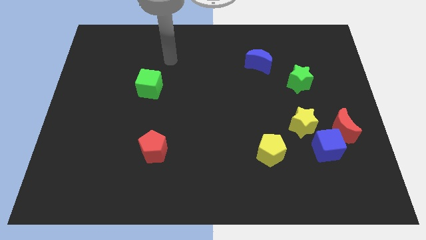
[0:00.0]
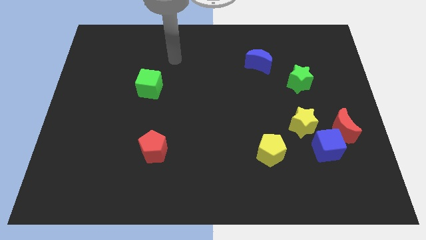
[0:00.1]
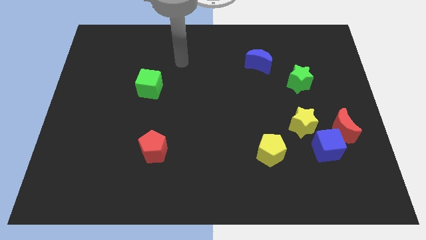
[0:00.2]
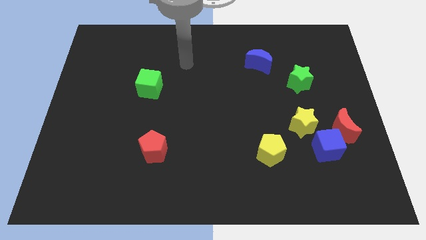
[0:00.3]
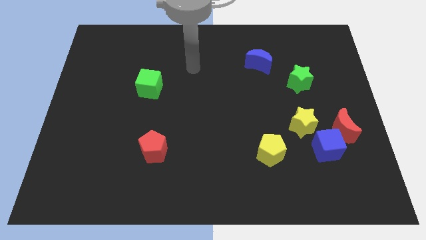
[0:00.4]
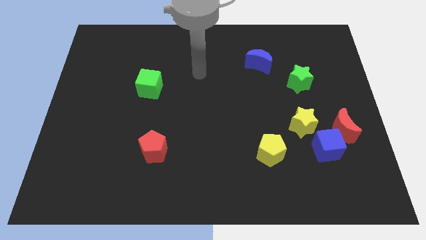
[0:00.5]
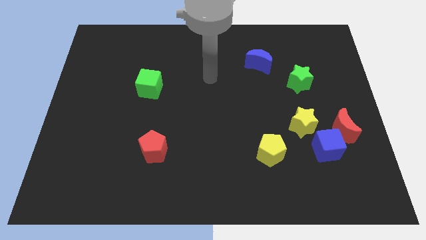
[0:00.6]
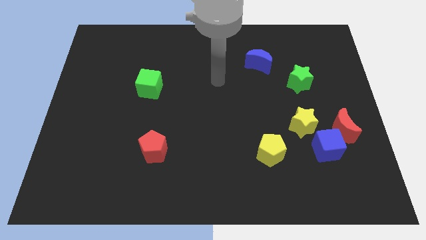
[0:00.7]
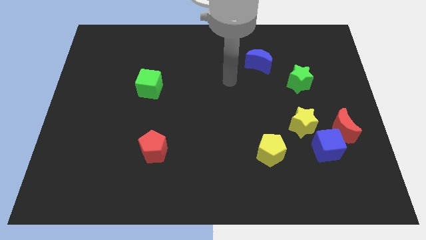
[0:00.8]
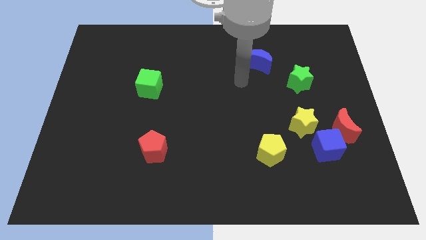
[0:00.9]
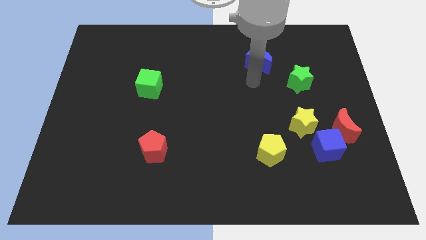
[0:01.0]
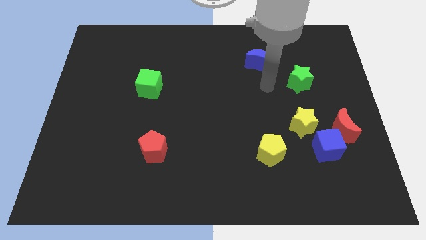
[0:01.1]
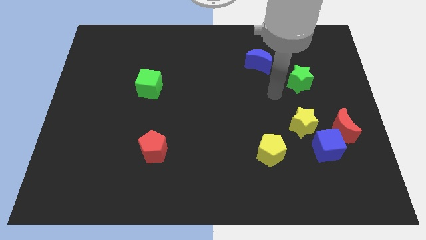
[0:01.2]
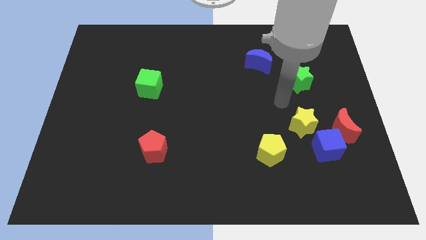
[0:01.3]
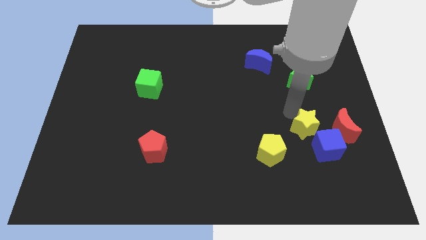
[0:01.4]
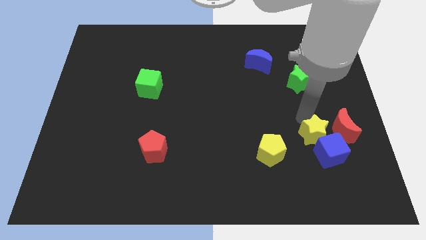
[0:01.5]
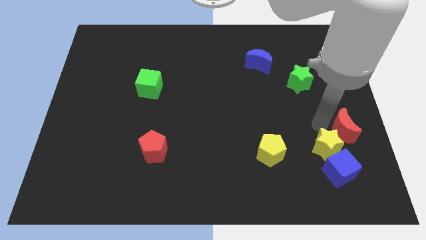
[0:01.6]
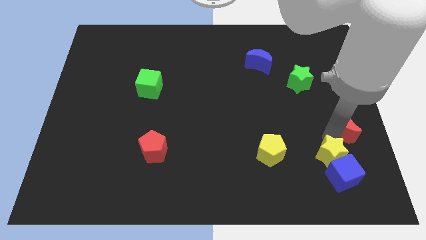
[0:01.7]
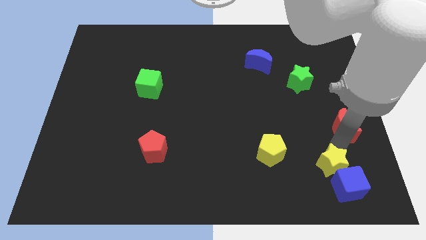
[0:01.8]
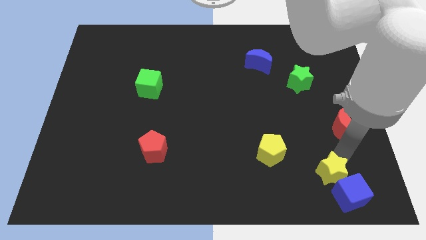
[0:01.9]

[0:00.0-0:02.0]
pull the blue cube apart from the red moon and yellow star

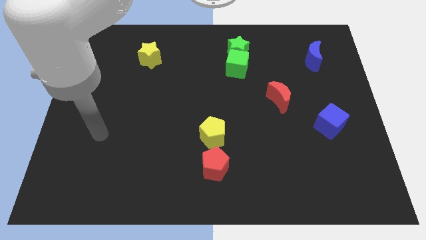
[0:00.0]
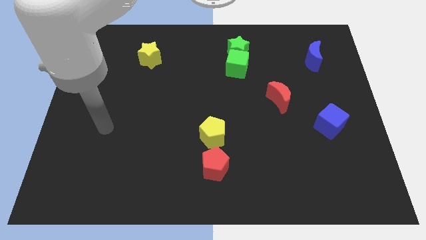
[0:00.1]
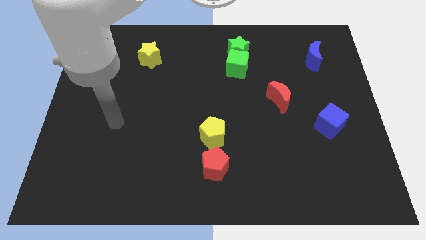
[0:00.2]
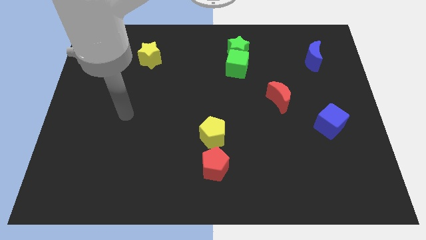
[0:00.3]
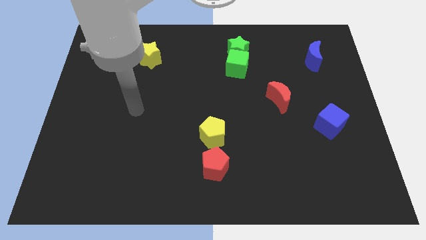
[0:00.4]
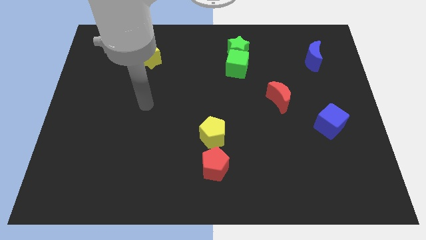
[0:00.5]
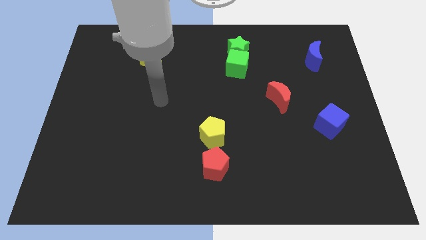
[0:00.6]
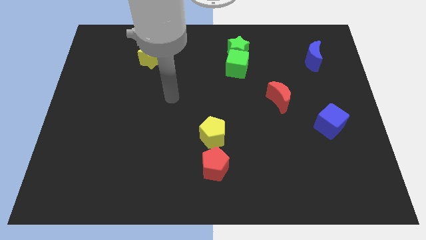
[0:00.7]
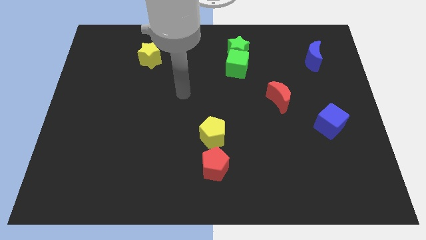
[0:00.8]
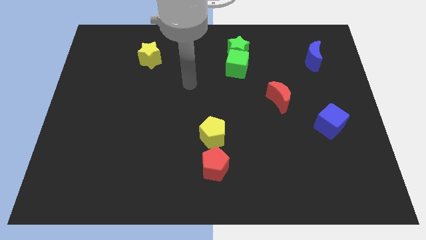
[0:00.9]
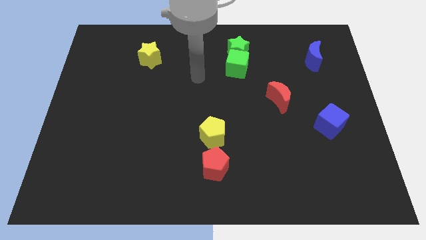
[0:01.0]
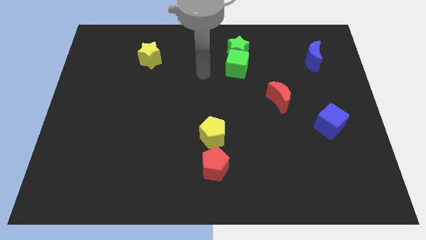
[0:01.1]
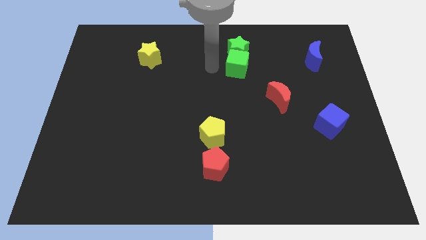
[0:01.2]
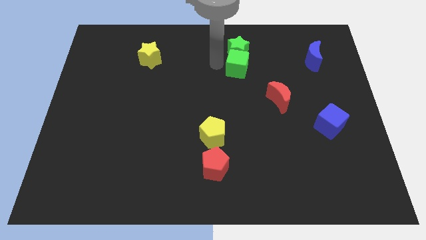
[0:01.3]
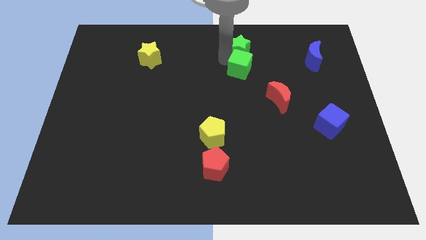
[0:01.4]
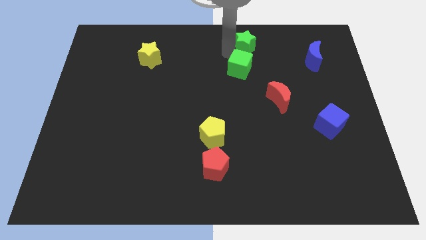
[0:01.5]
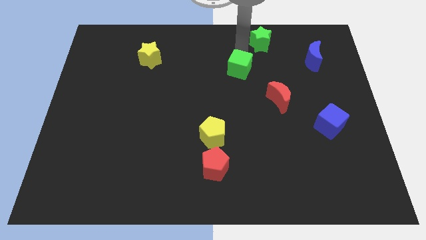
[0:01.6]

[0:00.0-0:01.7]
pull the green cube apart from the green star

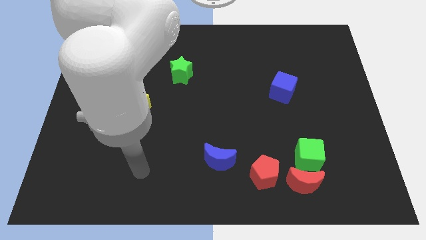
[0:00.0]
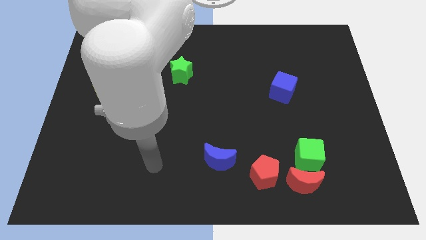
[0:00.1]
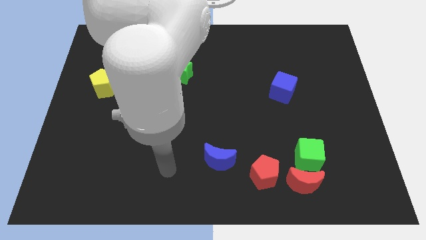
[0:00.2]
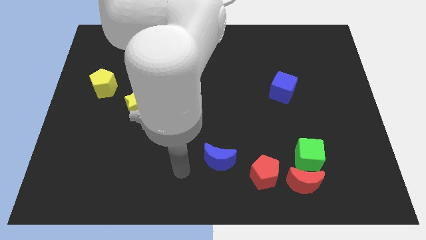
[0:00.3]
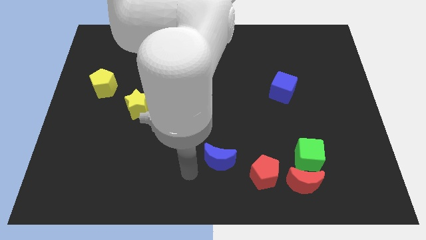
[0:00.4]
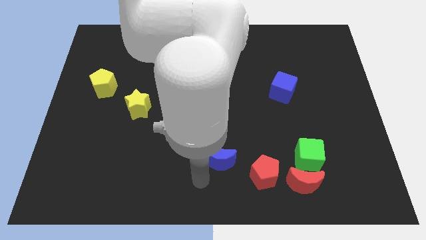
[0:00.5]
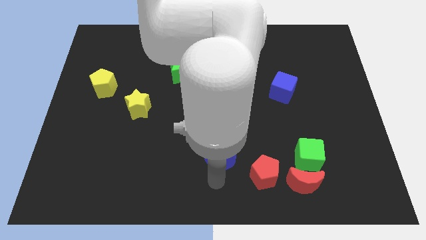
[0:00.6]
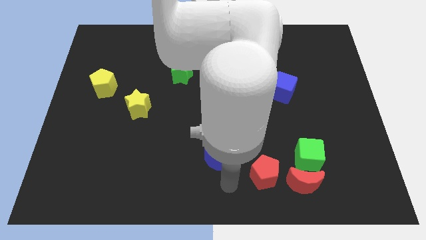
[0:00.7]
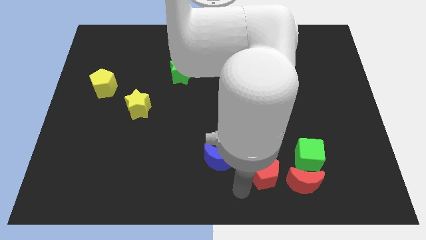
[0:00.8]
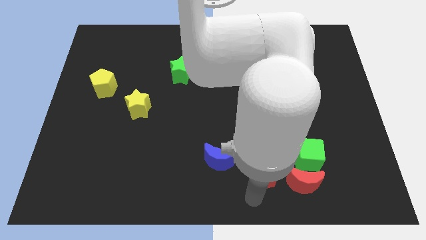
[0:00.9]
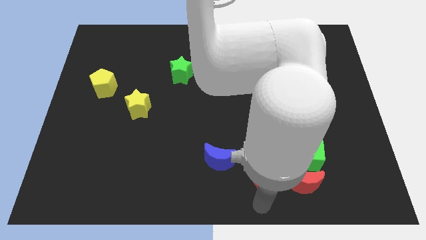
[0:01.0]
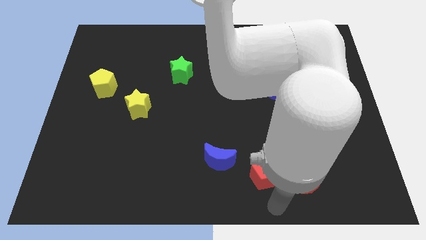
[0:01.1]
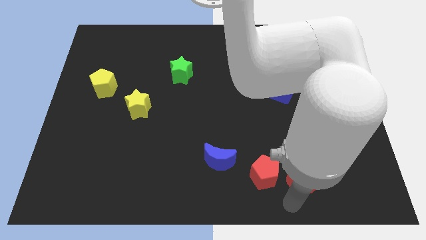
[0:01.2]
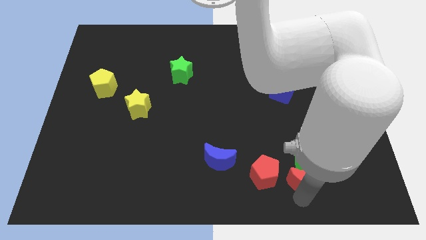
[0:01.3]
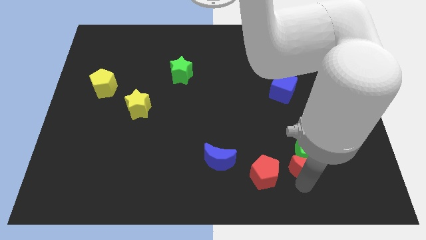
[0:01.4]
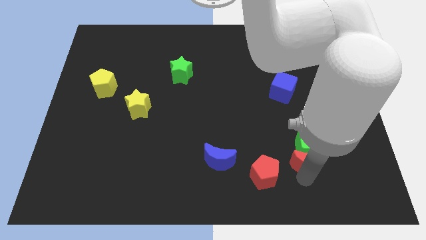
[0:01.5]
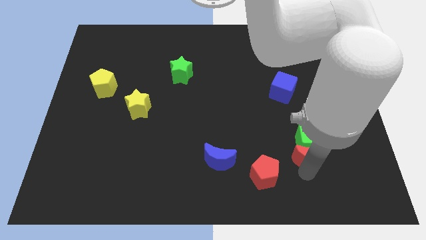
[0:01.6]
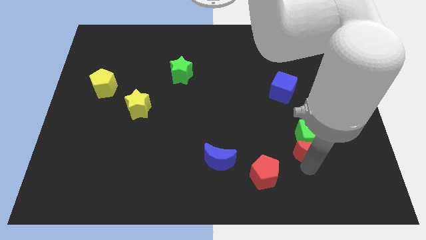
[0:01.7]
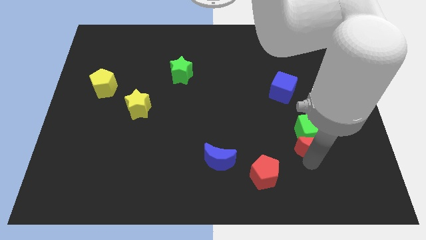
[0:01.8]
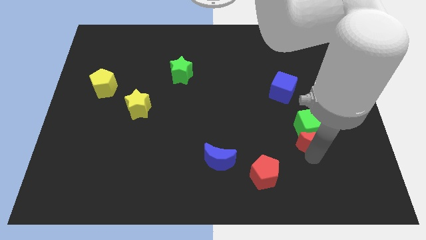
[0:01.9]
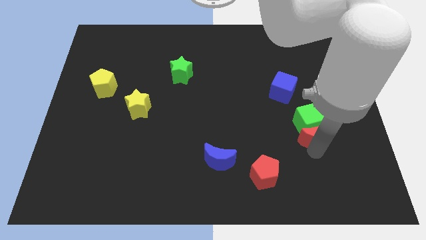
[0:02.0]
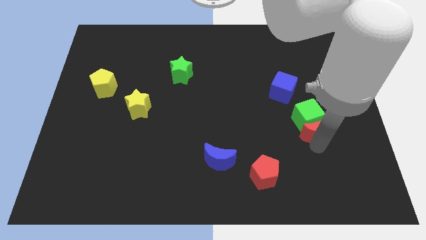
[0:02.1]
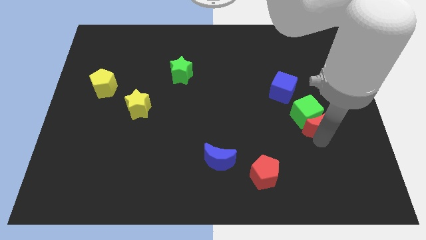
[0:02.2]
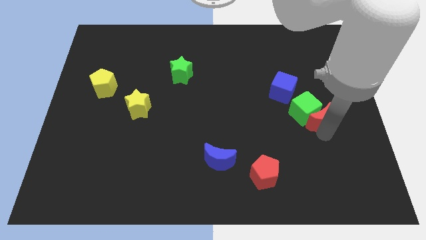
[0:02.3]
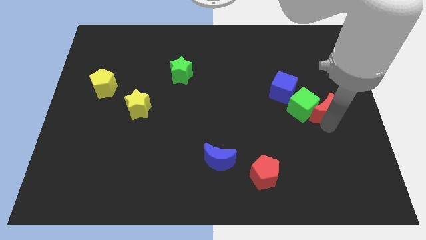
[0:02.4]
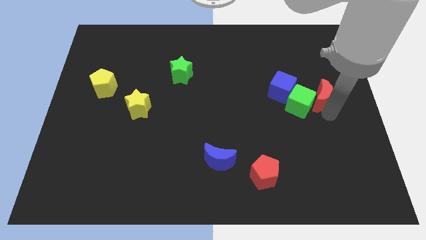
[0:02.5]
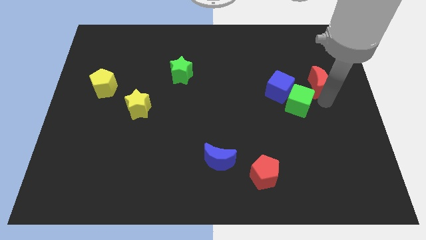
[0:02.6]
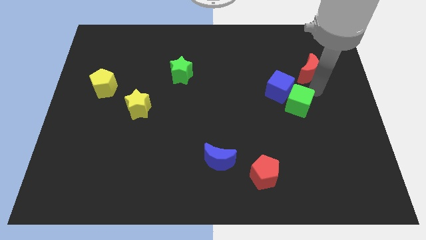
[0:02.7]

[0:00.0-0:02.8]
move the green cube away from the red moon

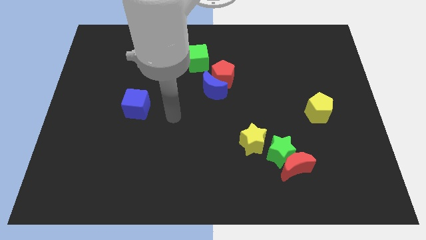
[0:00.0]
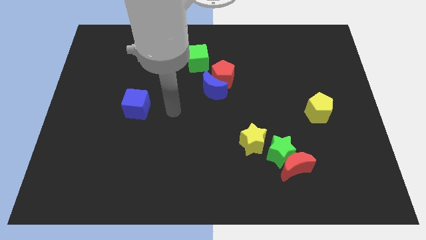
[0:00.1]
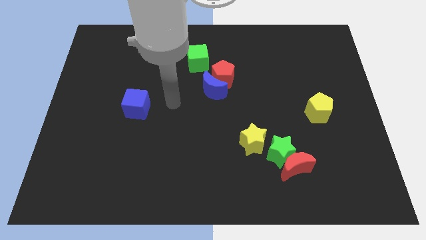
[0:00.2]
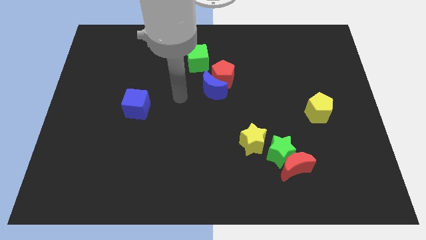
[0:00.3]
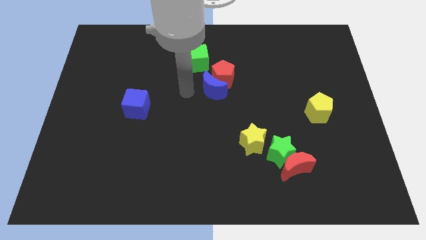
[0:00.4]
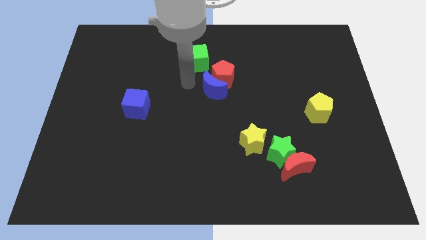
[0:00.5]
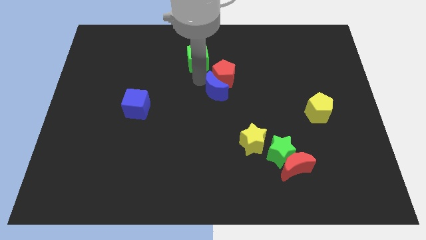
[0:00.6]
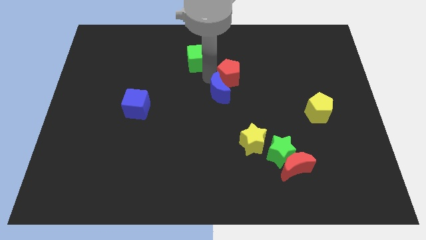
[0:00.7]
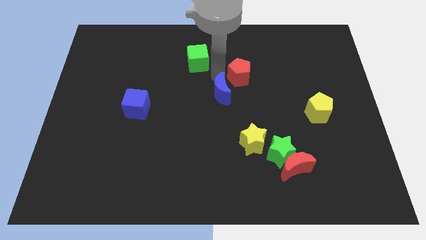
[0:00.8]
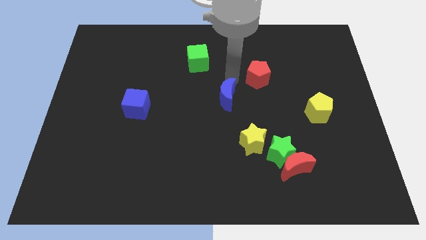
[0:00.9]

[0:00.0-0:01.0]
move the blue moon away from the red pentagon

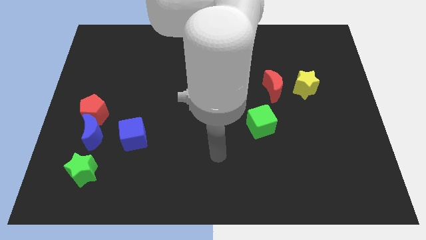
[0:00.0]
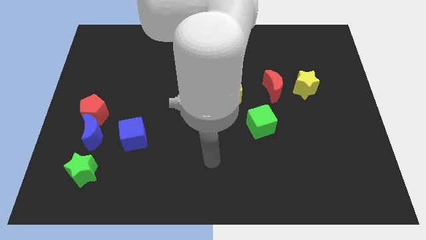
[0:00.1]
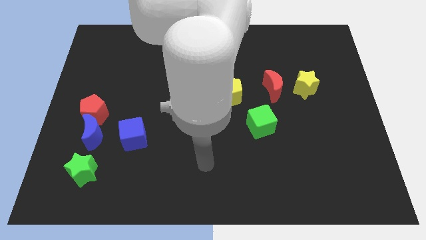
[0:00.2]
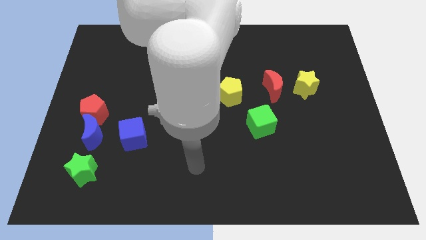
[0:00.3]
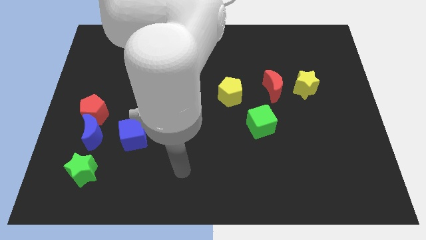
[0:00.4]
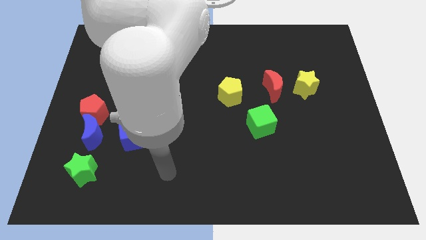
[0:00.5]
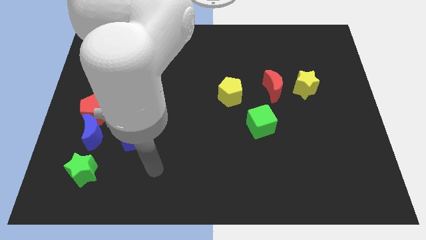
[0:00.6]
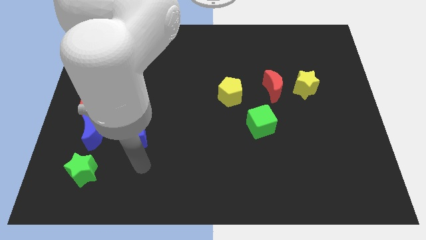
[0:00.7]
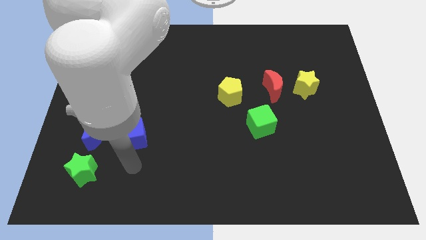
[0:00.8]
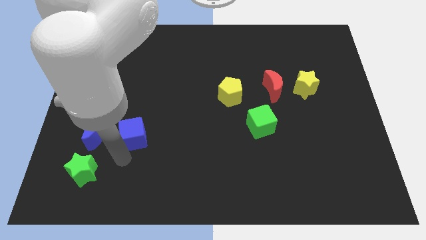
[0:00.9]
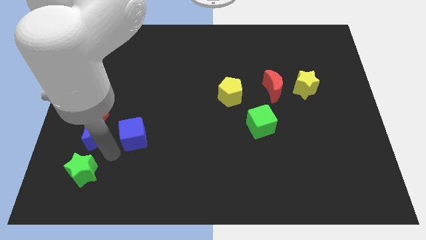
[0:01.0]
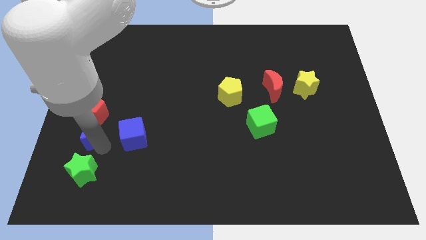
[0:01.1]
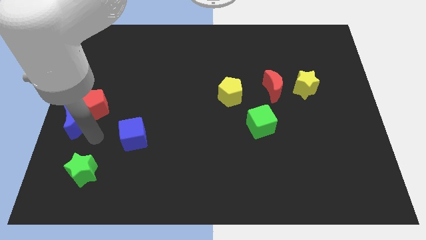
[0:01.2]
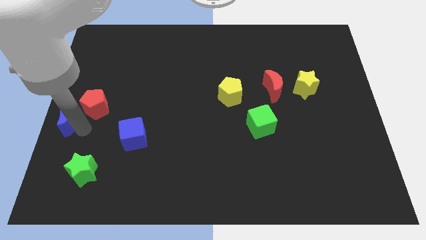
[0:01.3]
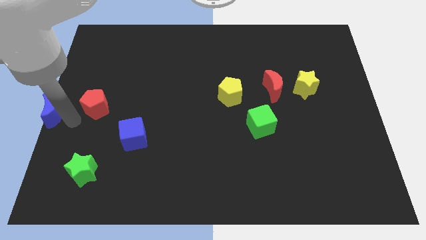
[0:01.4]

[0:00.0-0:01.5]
move the red pentagon away from the blue moon

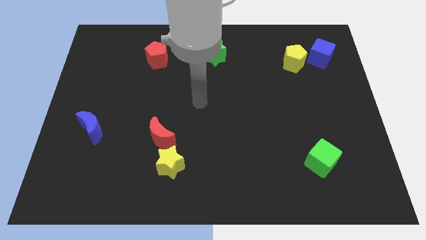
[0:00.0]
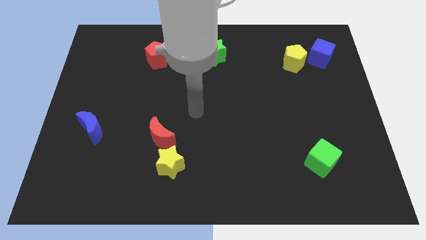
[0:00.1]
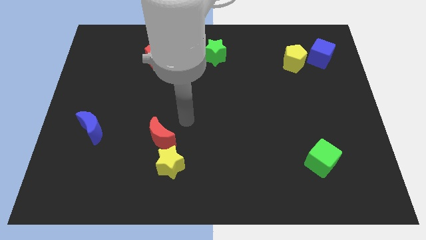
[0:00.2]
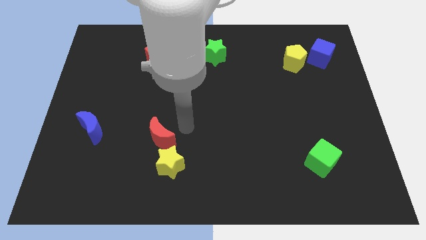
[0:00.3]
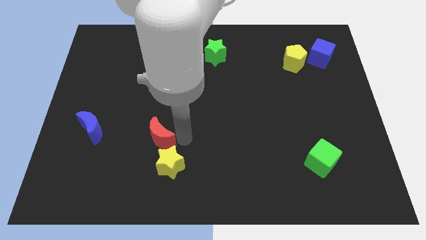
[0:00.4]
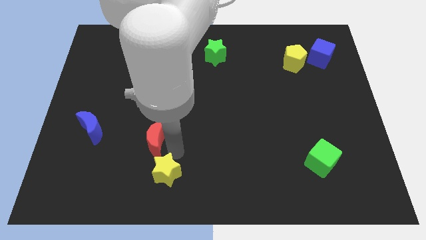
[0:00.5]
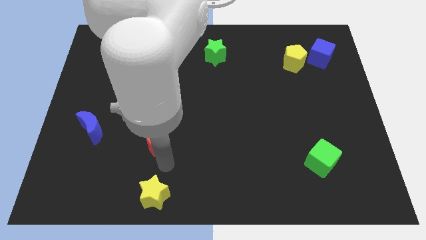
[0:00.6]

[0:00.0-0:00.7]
pull the red moon apart from the yellow star
